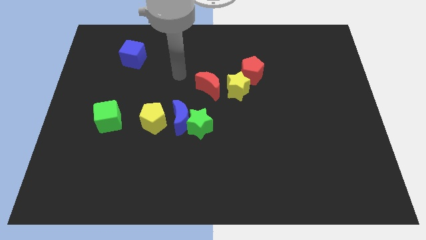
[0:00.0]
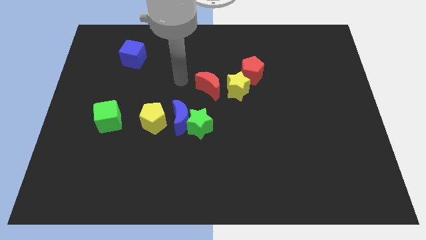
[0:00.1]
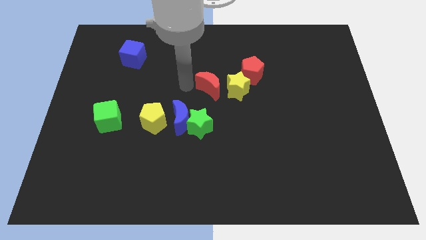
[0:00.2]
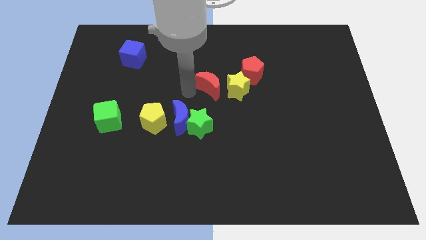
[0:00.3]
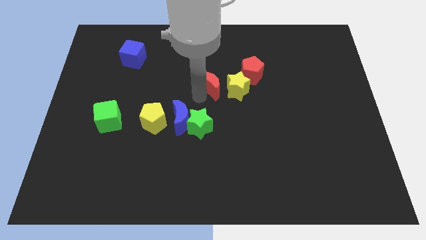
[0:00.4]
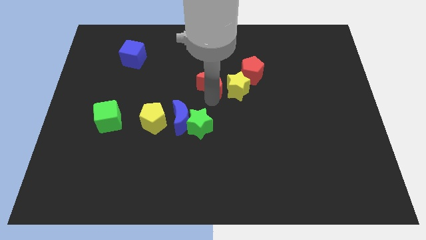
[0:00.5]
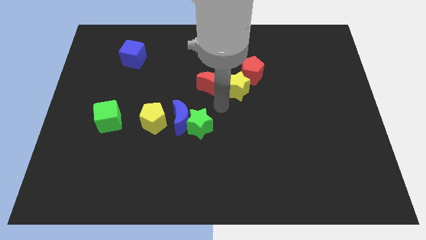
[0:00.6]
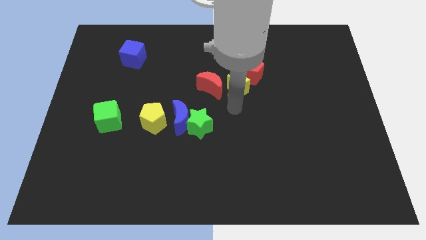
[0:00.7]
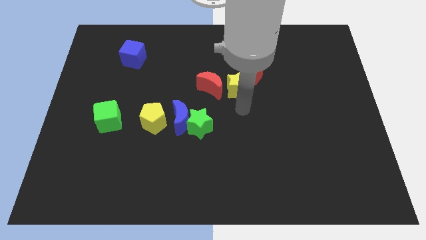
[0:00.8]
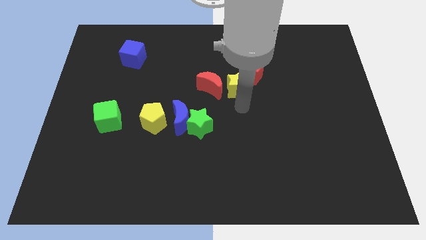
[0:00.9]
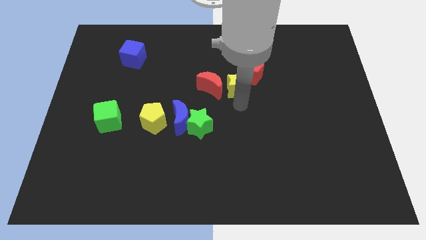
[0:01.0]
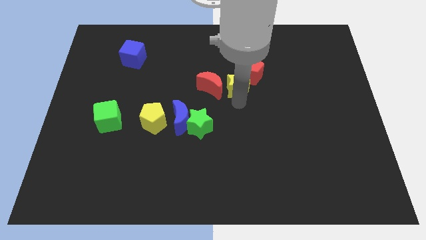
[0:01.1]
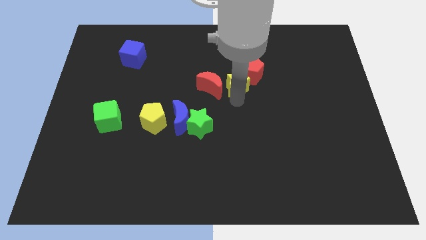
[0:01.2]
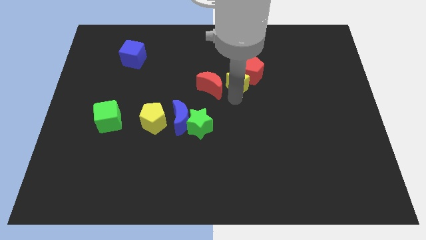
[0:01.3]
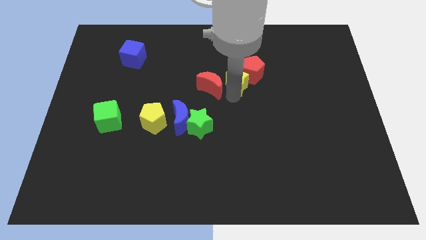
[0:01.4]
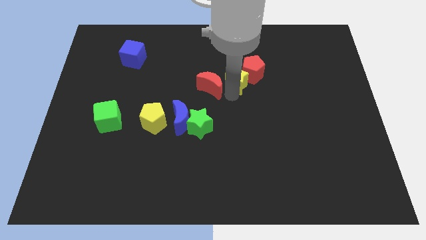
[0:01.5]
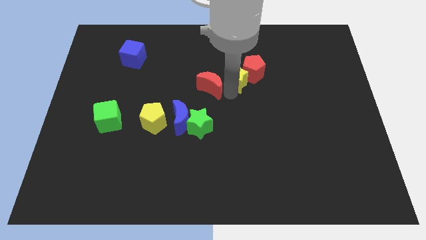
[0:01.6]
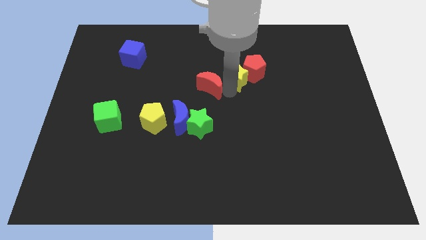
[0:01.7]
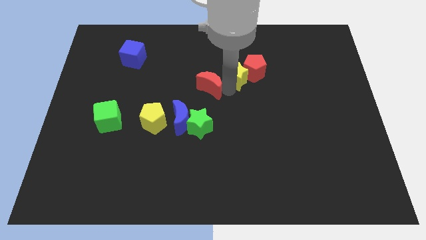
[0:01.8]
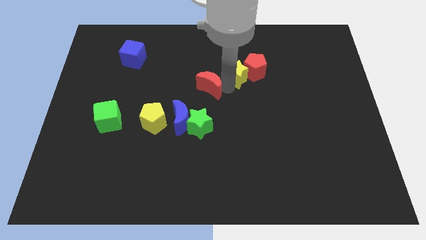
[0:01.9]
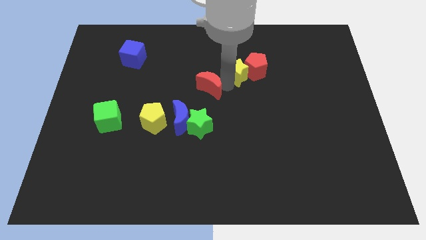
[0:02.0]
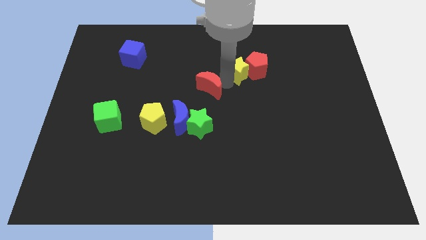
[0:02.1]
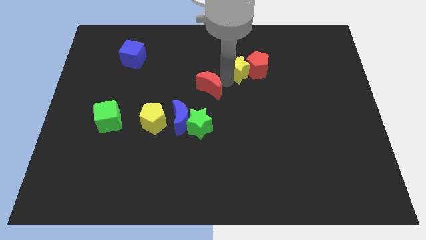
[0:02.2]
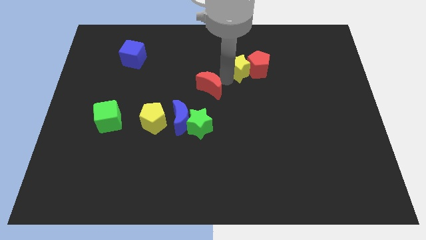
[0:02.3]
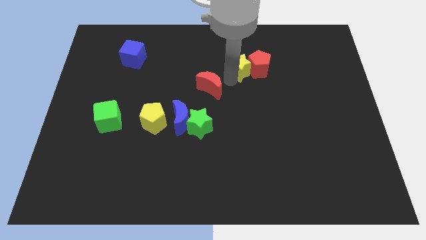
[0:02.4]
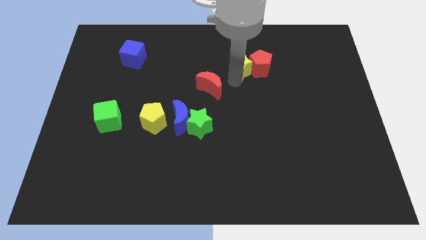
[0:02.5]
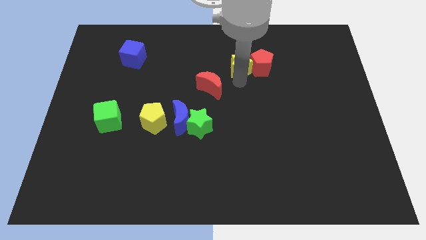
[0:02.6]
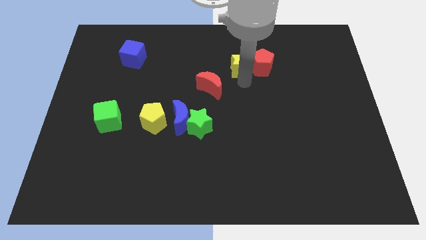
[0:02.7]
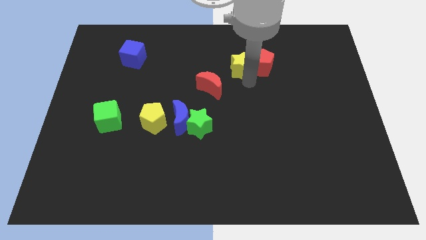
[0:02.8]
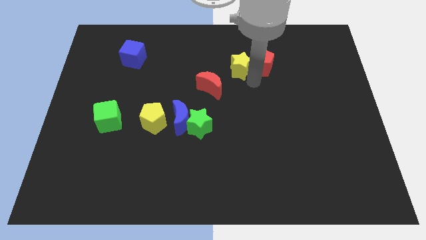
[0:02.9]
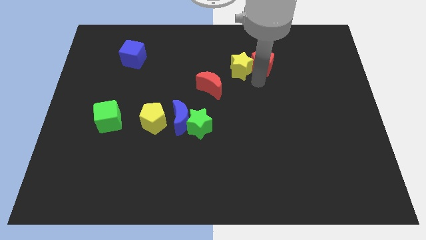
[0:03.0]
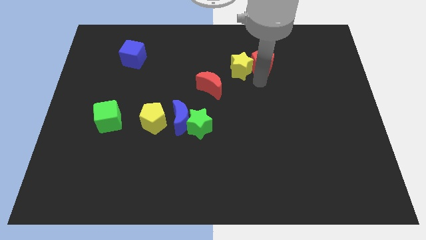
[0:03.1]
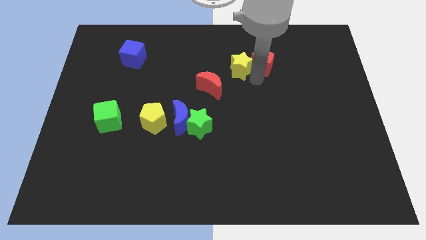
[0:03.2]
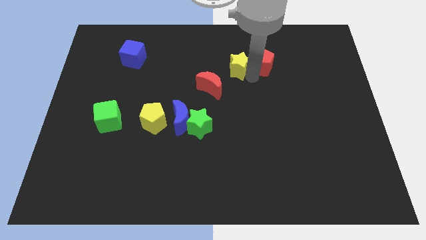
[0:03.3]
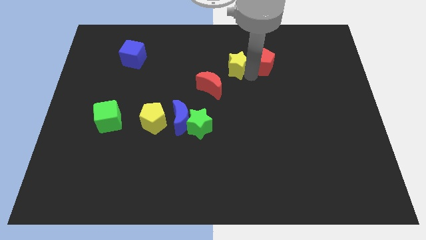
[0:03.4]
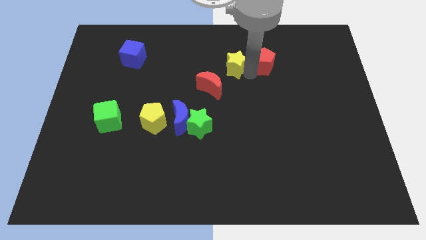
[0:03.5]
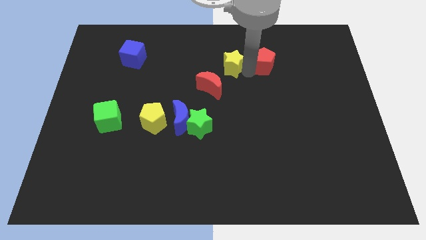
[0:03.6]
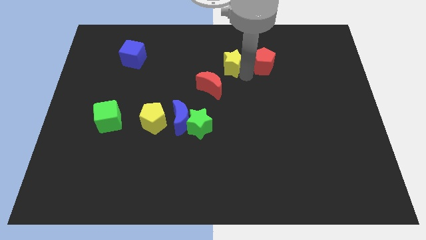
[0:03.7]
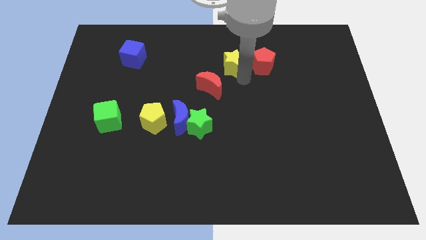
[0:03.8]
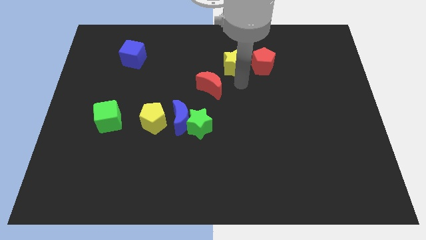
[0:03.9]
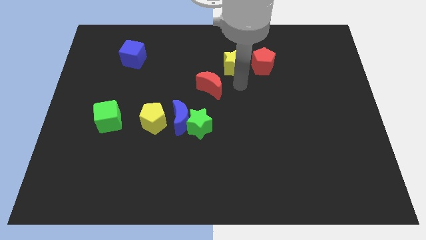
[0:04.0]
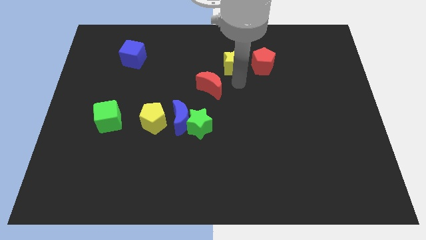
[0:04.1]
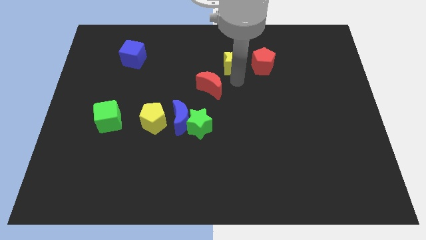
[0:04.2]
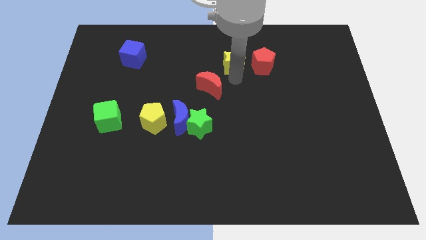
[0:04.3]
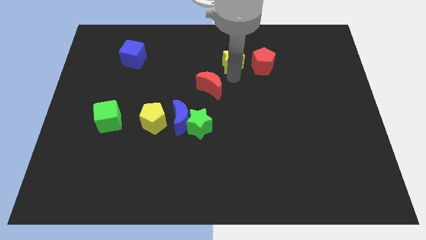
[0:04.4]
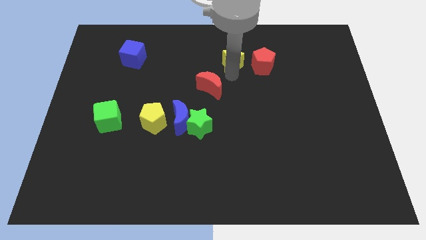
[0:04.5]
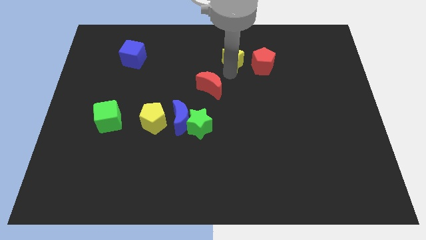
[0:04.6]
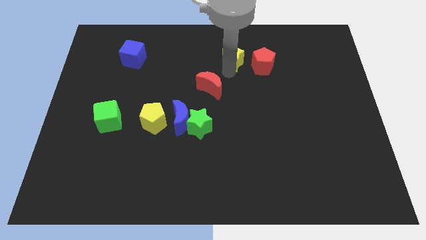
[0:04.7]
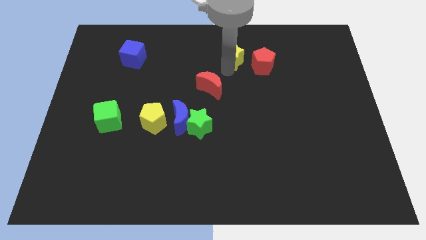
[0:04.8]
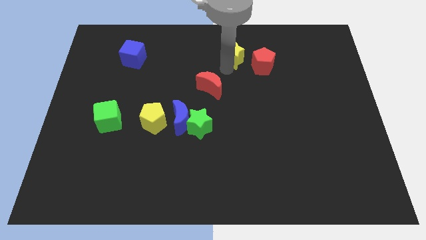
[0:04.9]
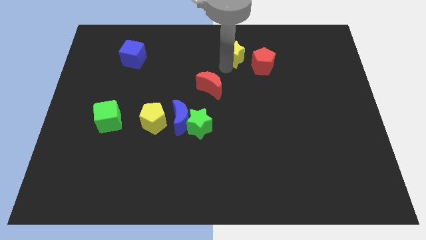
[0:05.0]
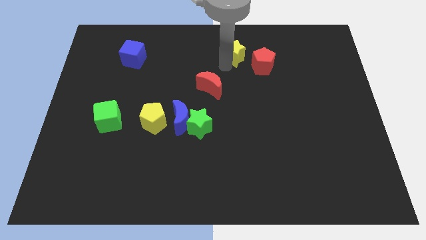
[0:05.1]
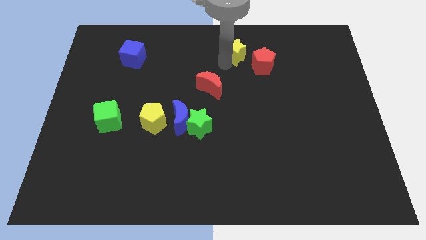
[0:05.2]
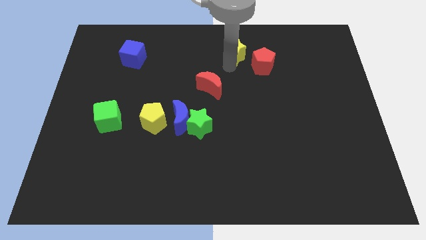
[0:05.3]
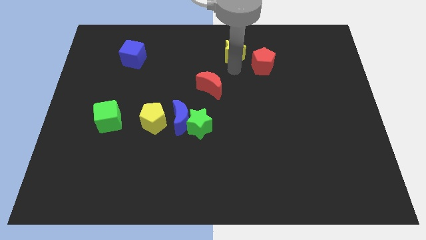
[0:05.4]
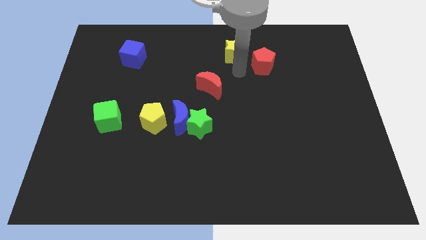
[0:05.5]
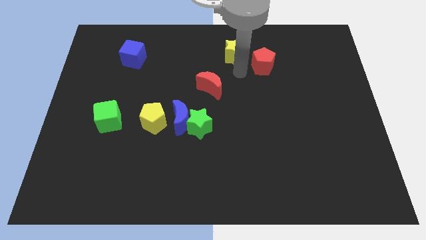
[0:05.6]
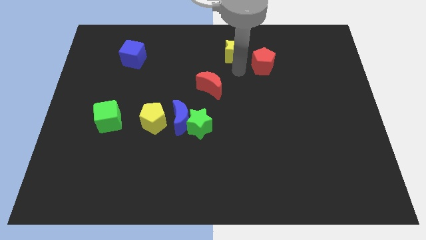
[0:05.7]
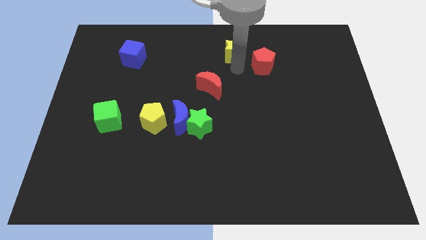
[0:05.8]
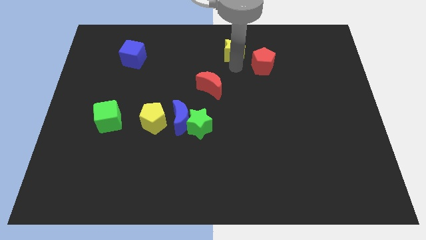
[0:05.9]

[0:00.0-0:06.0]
move the yellow star to the towards your base

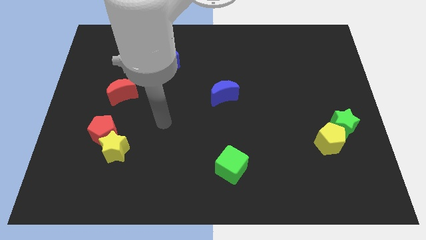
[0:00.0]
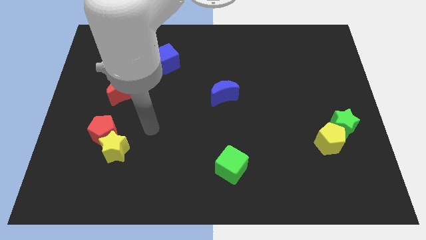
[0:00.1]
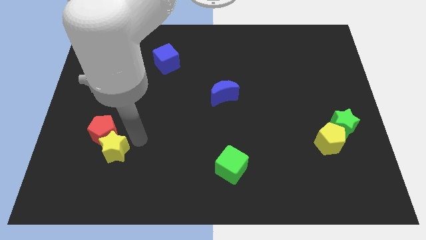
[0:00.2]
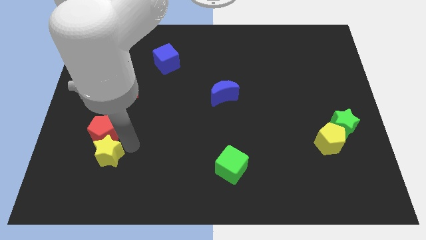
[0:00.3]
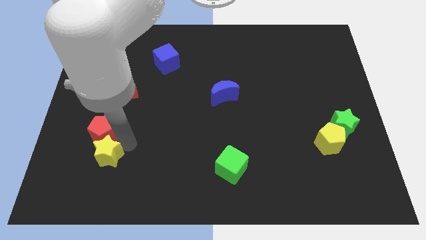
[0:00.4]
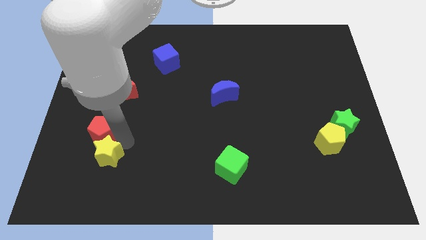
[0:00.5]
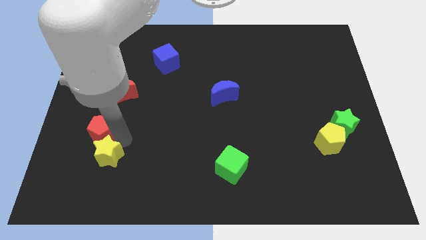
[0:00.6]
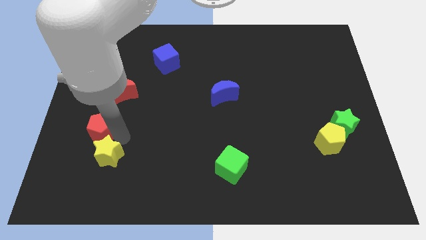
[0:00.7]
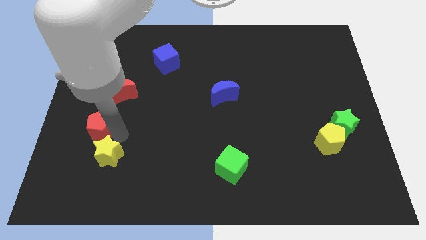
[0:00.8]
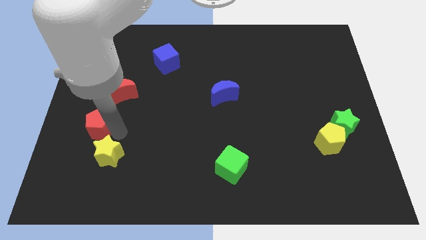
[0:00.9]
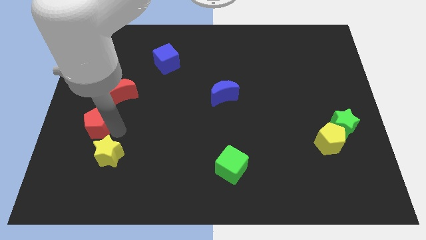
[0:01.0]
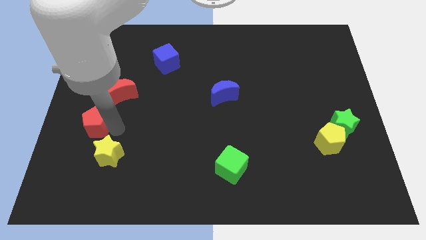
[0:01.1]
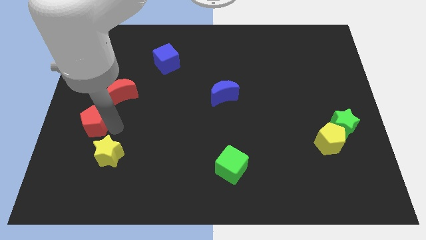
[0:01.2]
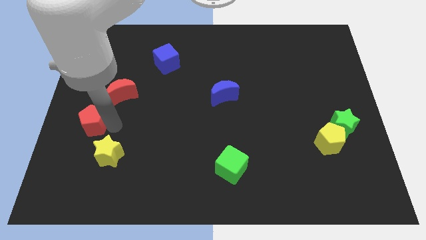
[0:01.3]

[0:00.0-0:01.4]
push the red pentagon to the center left
